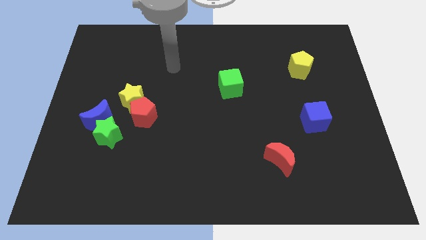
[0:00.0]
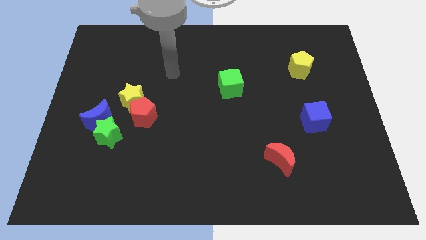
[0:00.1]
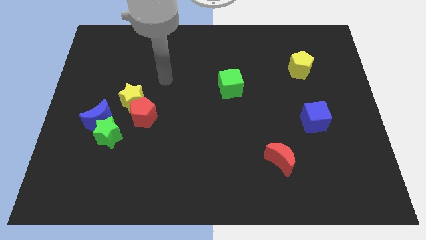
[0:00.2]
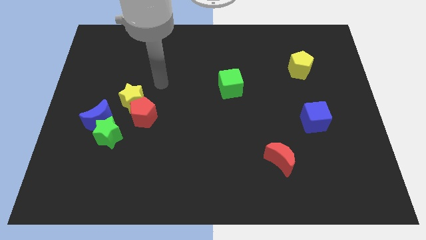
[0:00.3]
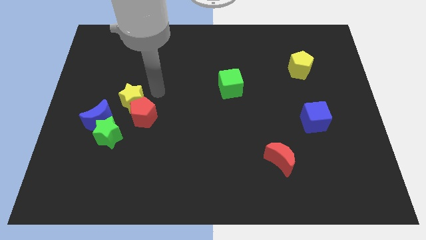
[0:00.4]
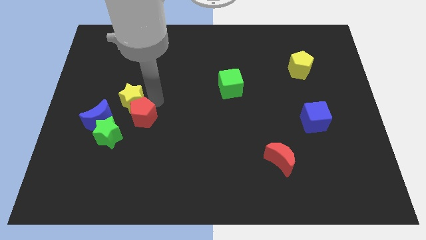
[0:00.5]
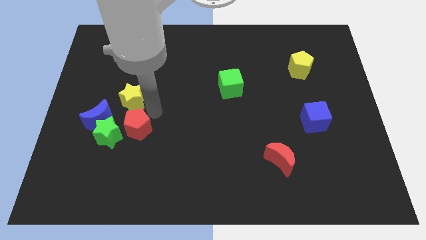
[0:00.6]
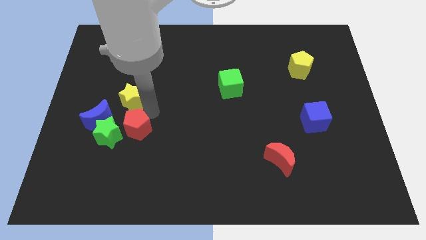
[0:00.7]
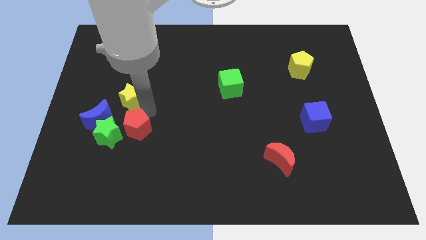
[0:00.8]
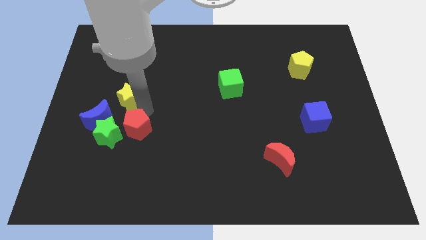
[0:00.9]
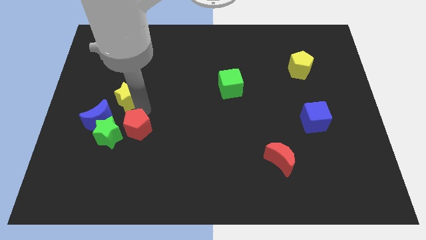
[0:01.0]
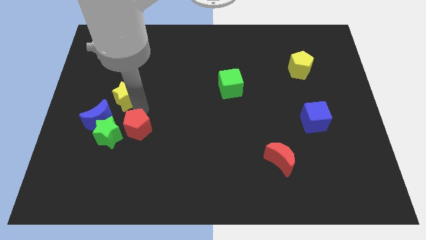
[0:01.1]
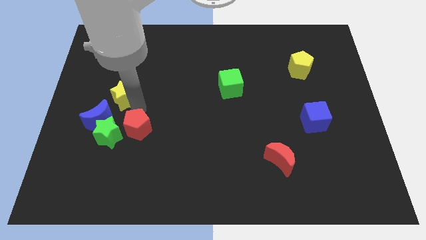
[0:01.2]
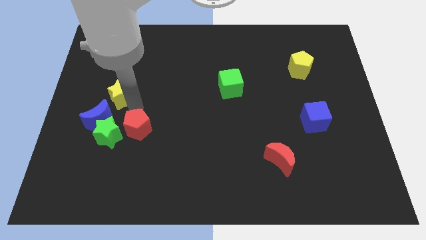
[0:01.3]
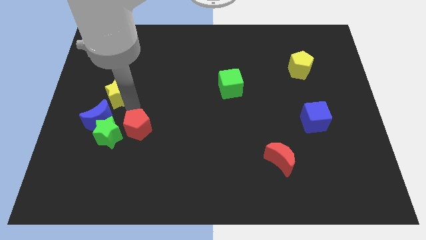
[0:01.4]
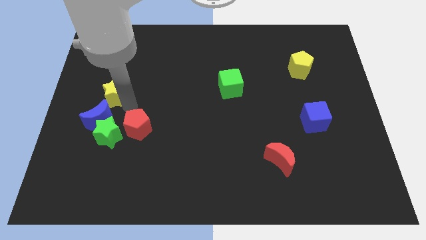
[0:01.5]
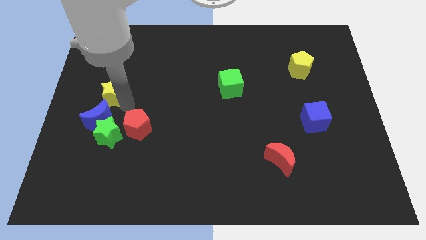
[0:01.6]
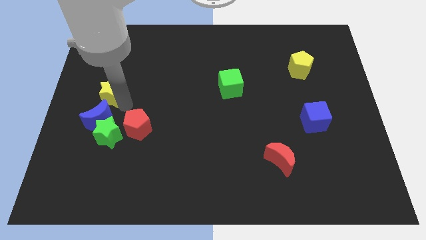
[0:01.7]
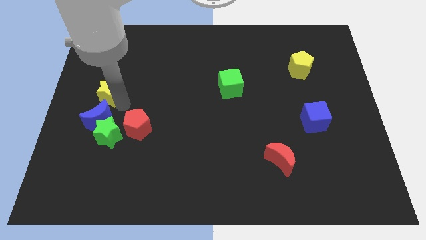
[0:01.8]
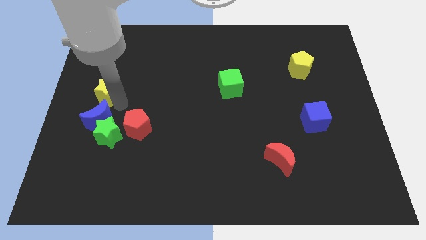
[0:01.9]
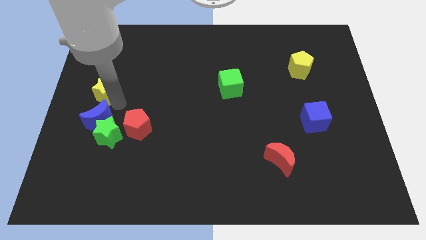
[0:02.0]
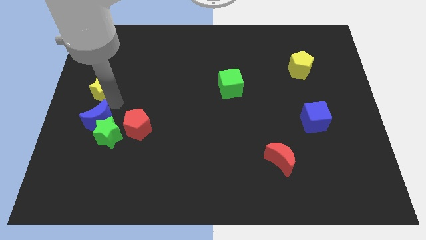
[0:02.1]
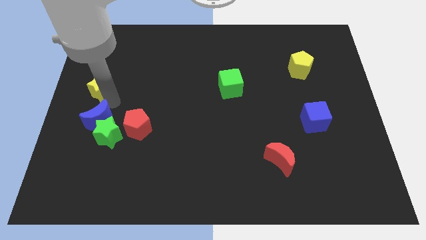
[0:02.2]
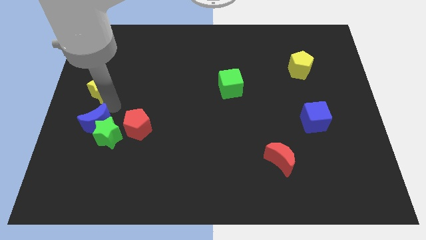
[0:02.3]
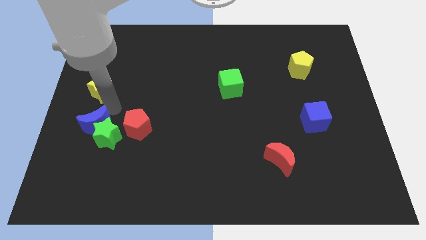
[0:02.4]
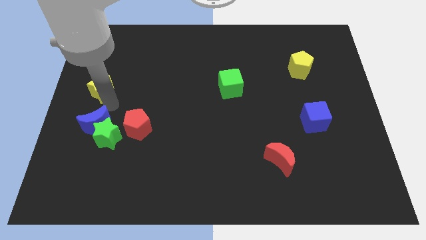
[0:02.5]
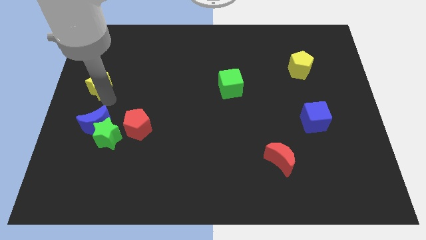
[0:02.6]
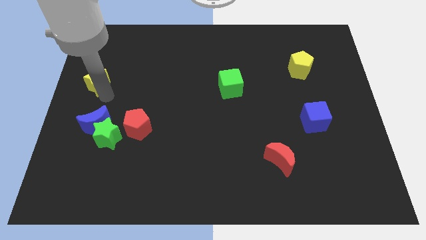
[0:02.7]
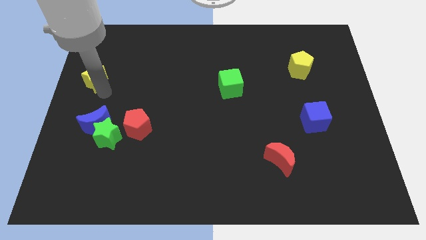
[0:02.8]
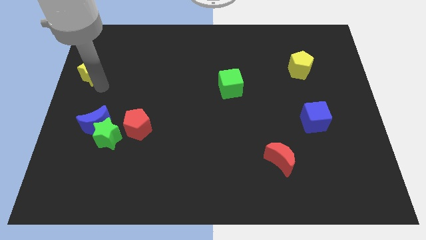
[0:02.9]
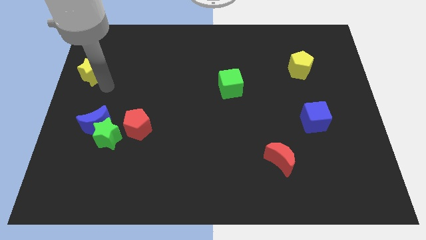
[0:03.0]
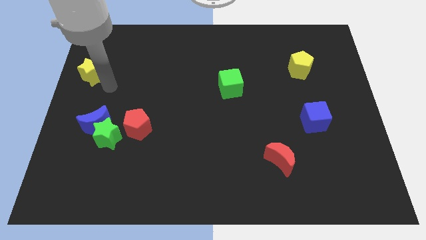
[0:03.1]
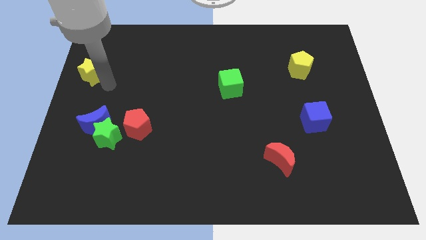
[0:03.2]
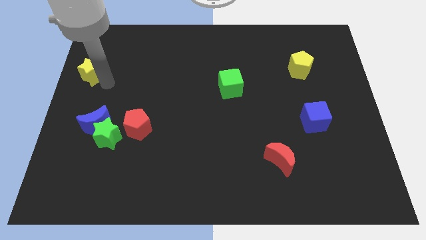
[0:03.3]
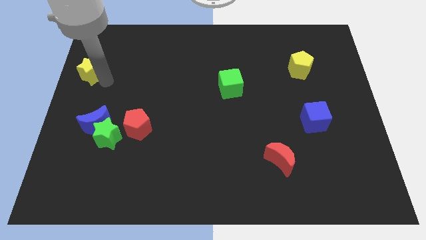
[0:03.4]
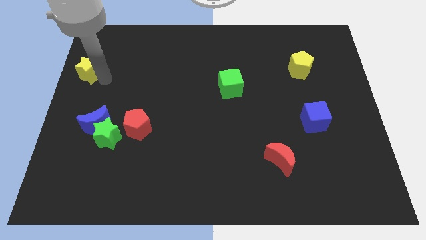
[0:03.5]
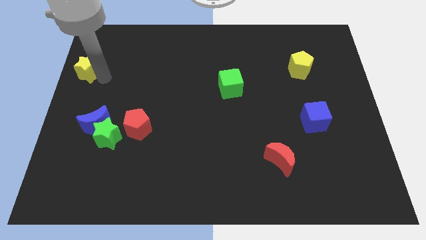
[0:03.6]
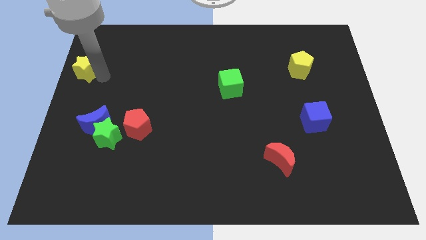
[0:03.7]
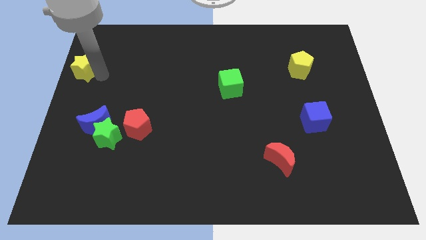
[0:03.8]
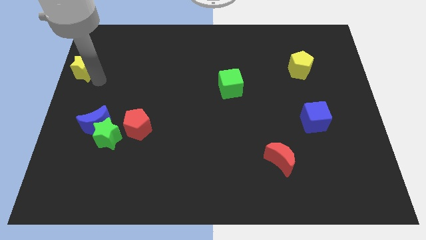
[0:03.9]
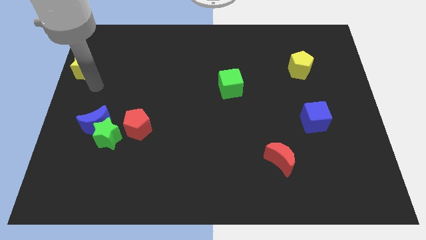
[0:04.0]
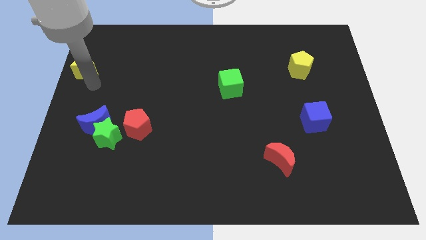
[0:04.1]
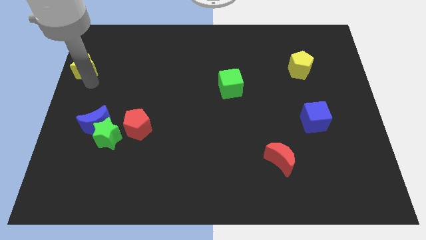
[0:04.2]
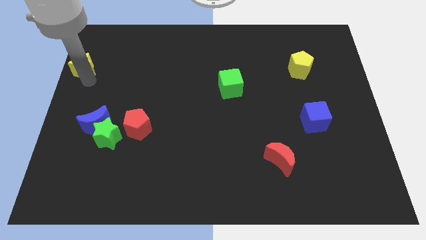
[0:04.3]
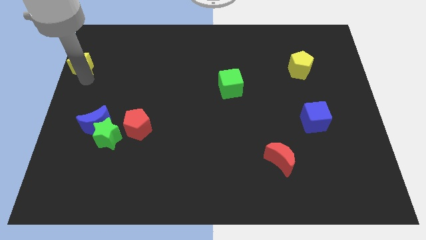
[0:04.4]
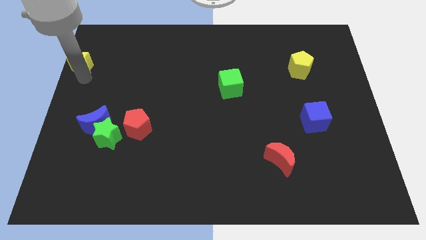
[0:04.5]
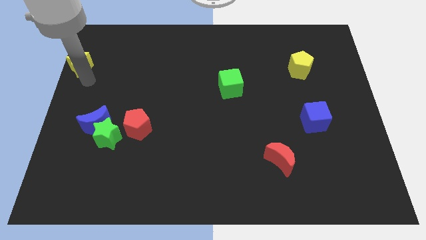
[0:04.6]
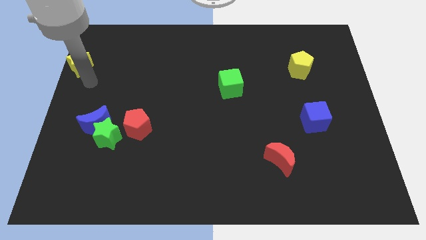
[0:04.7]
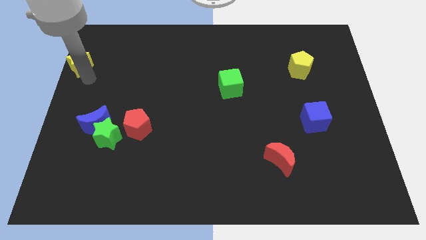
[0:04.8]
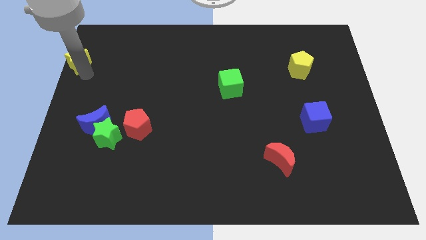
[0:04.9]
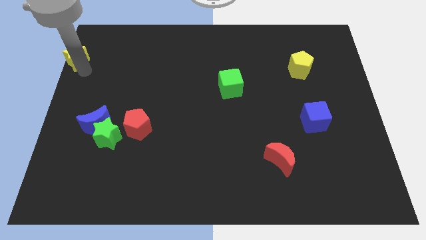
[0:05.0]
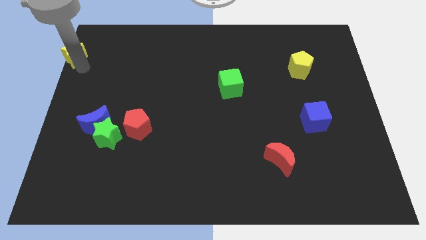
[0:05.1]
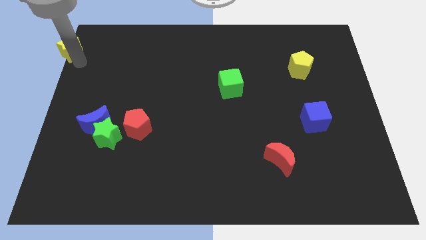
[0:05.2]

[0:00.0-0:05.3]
push the yellow star to the top left of the board

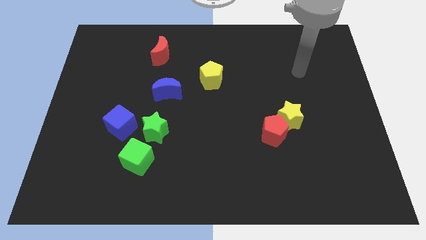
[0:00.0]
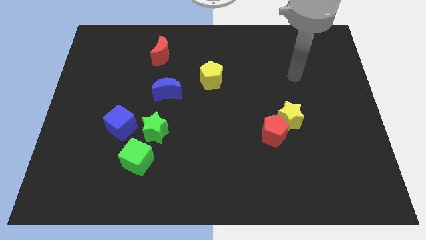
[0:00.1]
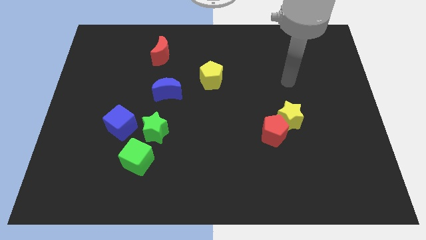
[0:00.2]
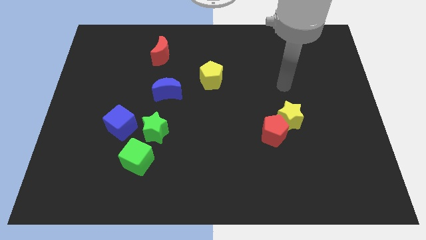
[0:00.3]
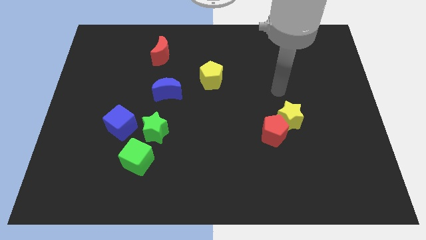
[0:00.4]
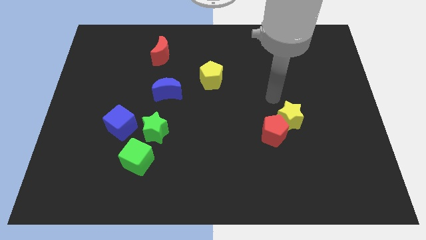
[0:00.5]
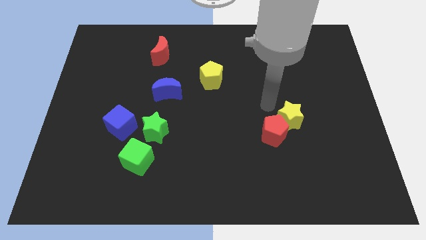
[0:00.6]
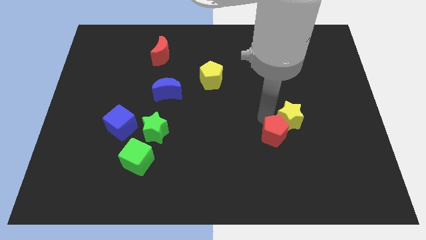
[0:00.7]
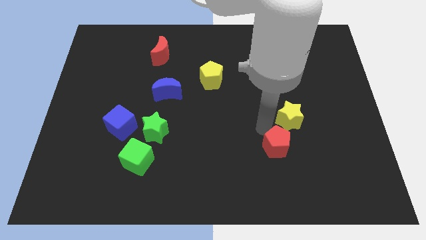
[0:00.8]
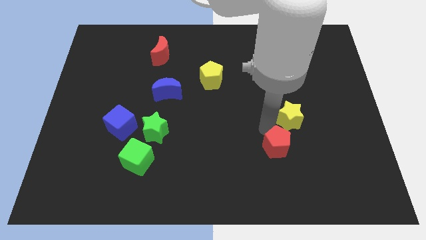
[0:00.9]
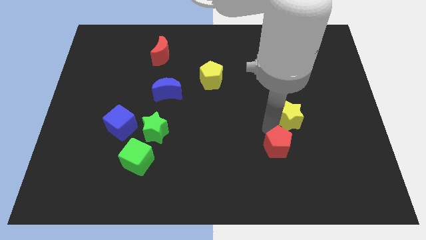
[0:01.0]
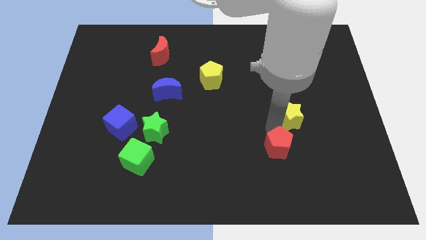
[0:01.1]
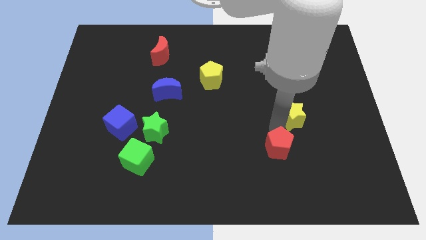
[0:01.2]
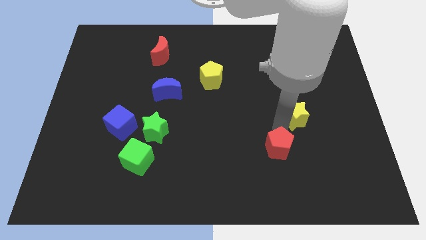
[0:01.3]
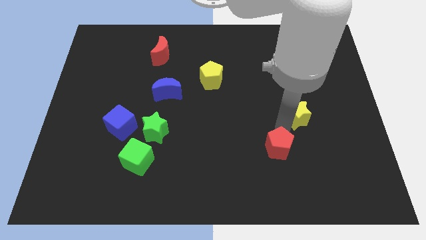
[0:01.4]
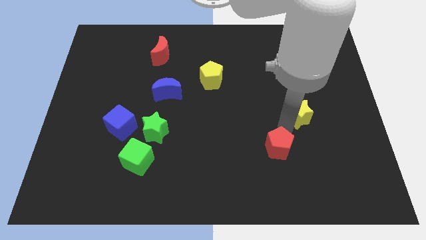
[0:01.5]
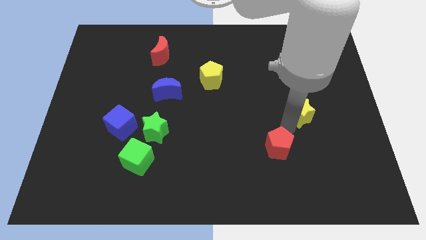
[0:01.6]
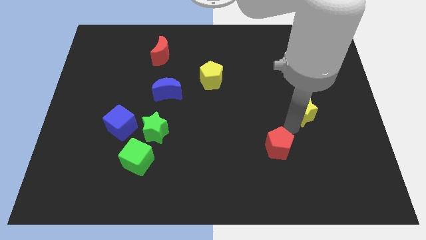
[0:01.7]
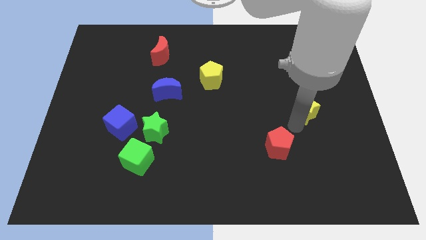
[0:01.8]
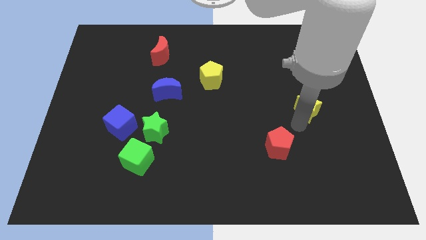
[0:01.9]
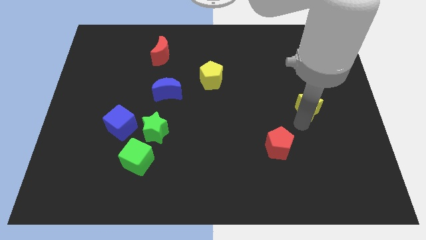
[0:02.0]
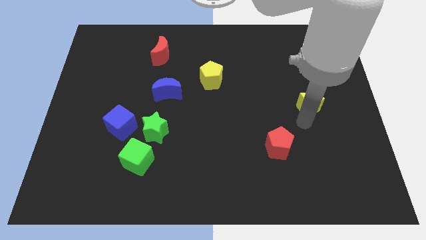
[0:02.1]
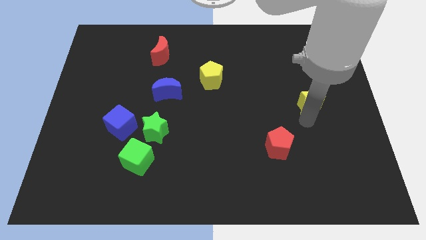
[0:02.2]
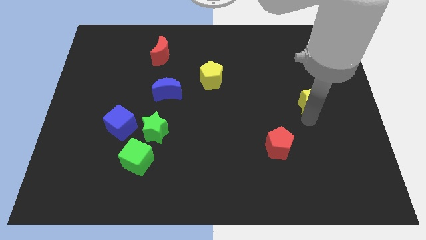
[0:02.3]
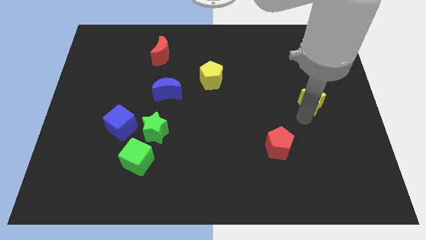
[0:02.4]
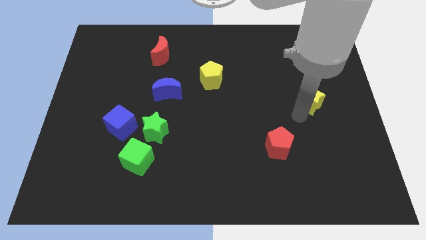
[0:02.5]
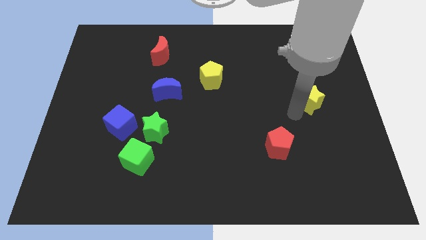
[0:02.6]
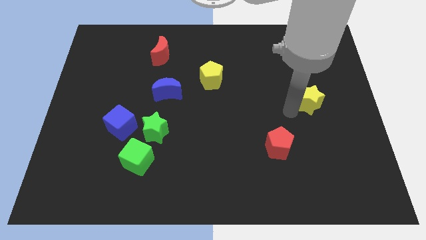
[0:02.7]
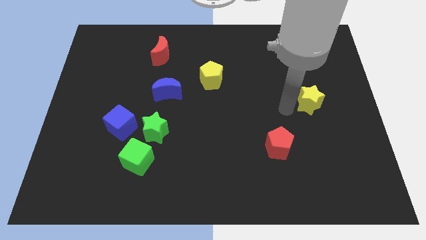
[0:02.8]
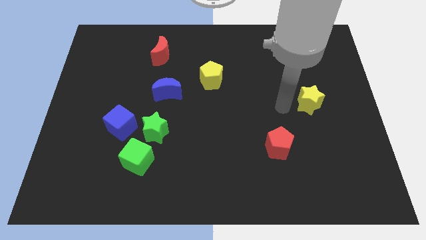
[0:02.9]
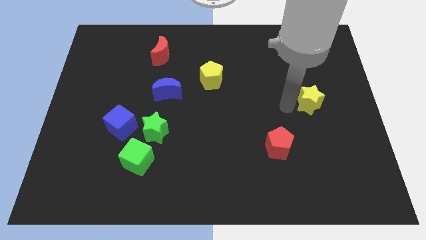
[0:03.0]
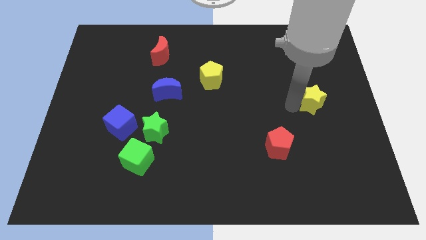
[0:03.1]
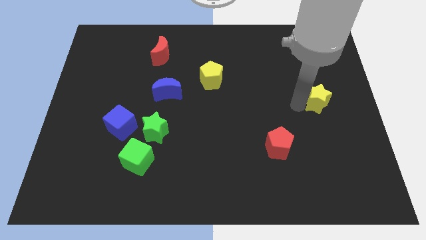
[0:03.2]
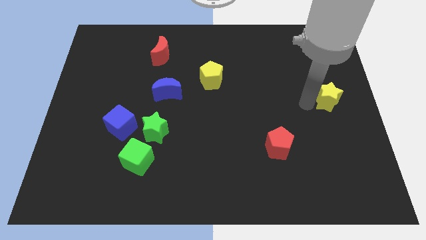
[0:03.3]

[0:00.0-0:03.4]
put the yellow star to the right side of the board
